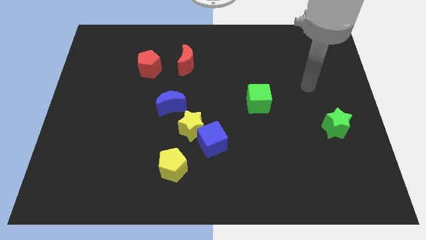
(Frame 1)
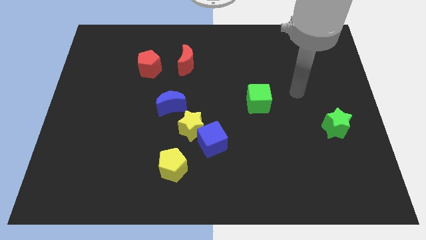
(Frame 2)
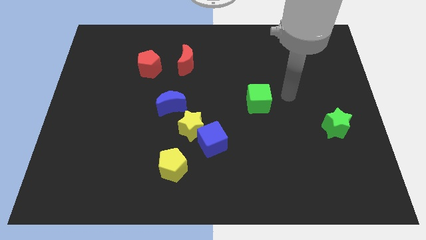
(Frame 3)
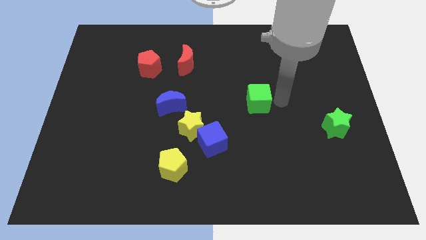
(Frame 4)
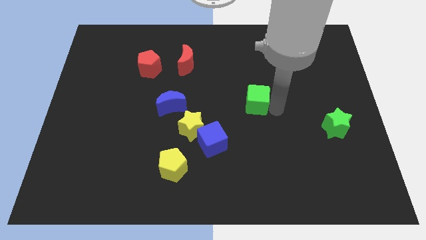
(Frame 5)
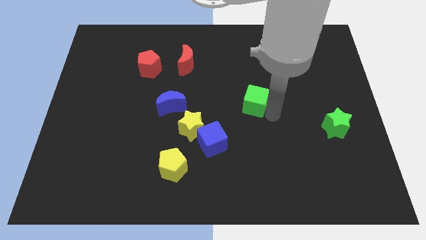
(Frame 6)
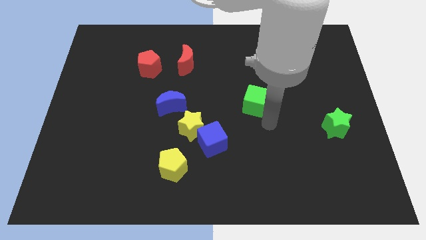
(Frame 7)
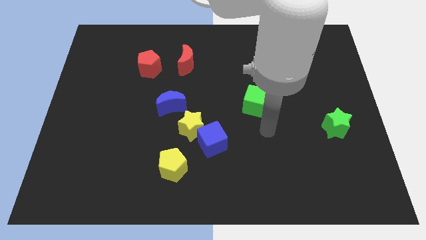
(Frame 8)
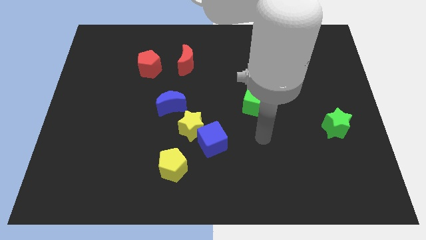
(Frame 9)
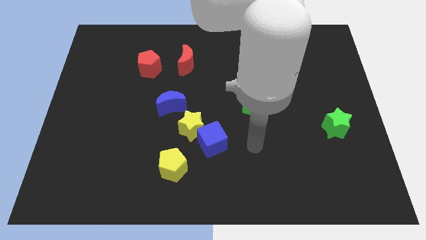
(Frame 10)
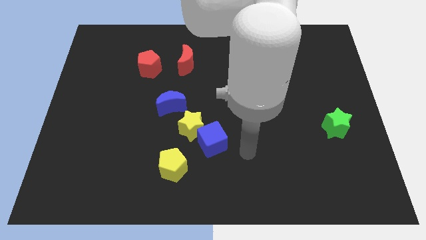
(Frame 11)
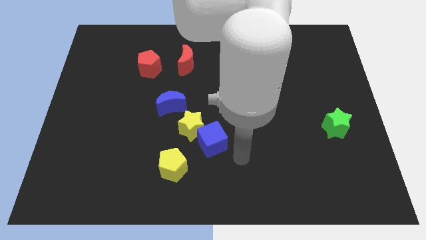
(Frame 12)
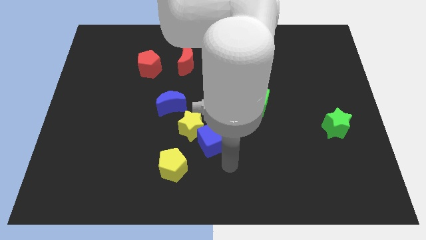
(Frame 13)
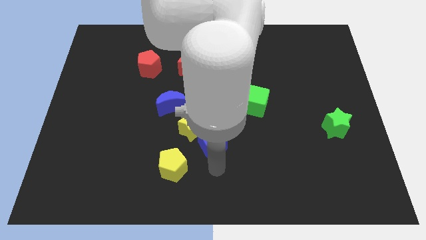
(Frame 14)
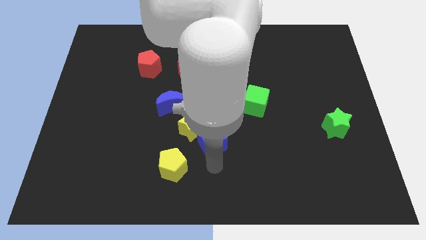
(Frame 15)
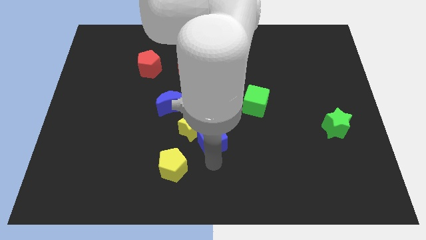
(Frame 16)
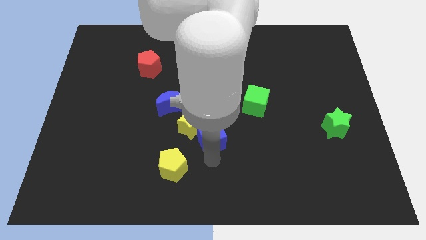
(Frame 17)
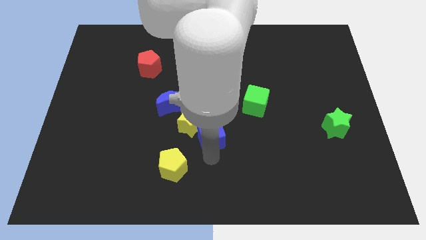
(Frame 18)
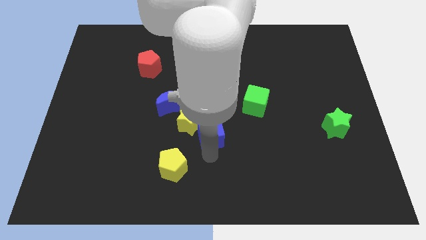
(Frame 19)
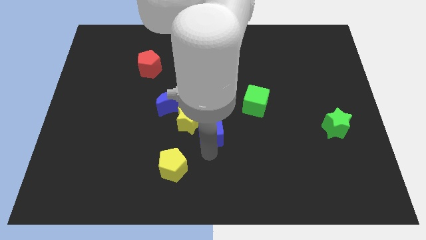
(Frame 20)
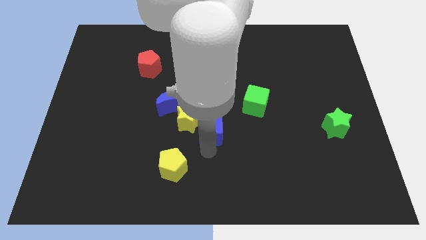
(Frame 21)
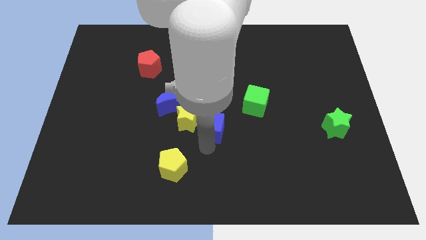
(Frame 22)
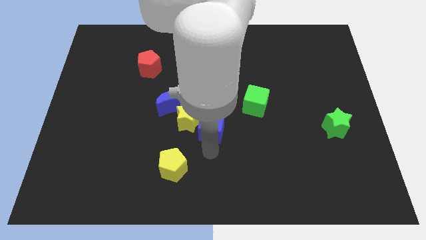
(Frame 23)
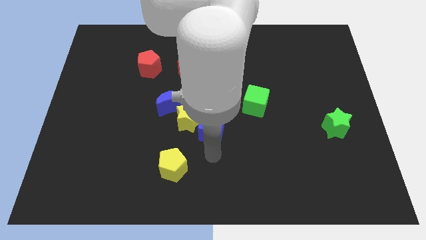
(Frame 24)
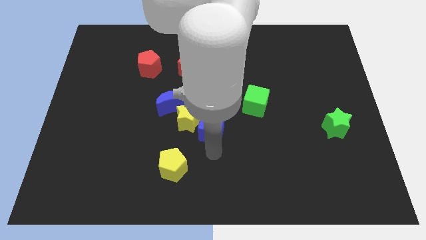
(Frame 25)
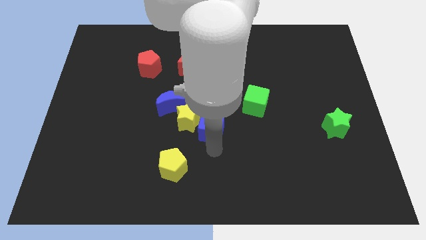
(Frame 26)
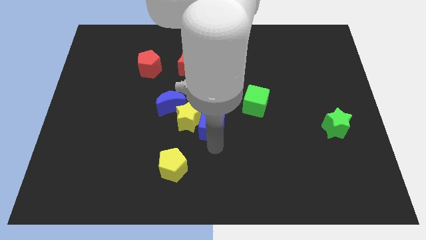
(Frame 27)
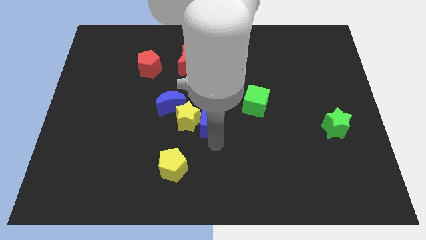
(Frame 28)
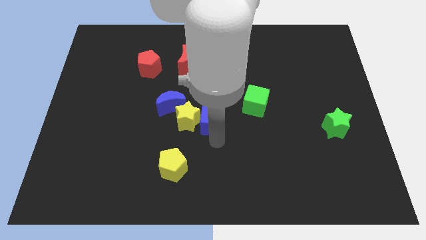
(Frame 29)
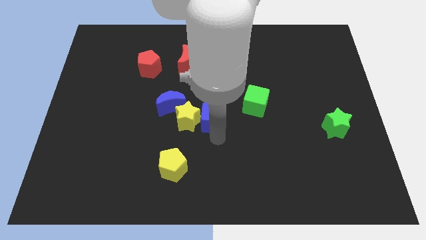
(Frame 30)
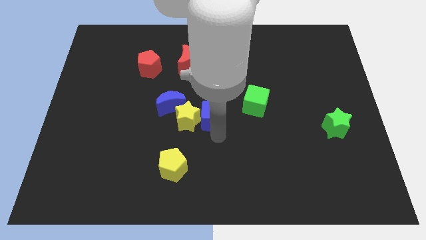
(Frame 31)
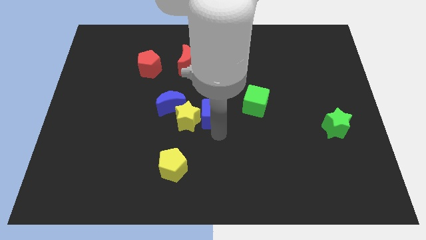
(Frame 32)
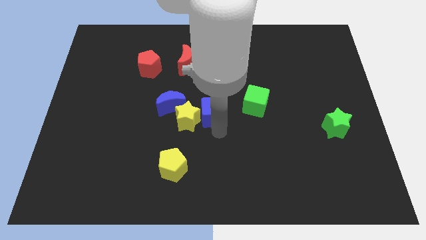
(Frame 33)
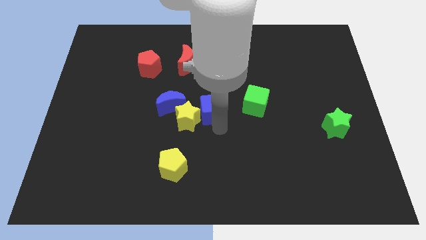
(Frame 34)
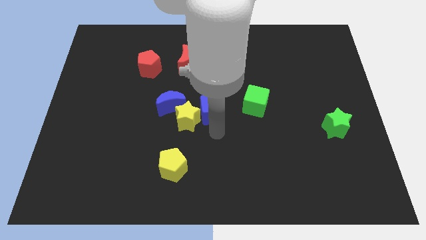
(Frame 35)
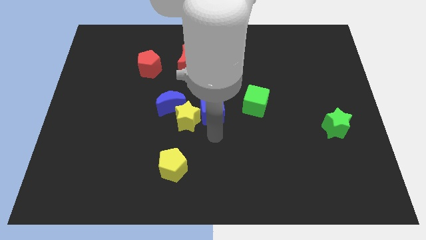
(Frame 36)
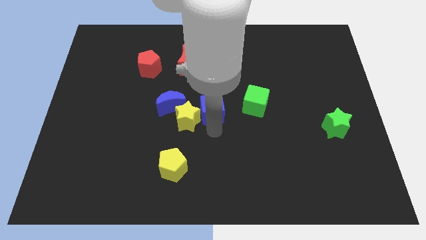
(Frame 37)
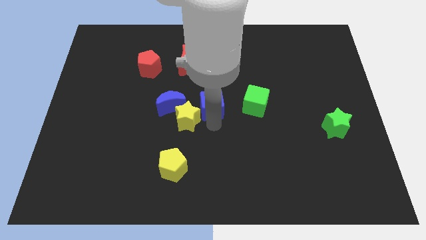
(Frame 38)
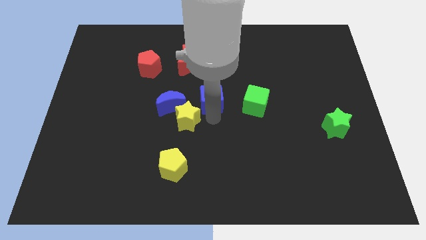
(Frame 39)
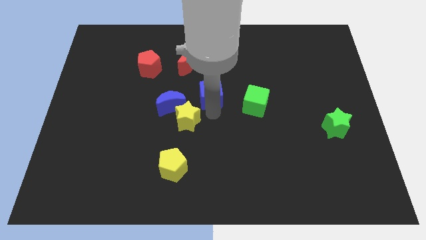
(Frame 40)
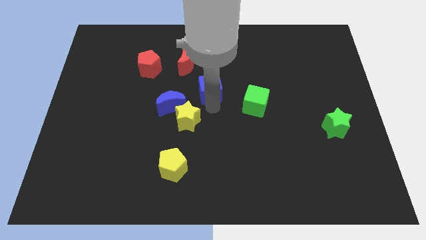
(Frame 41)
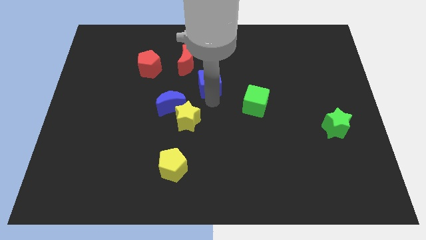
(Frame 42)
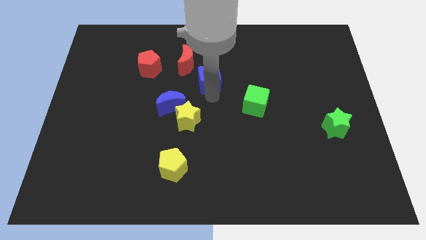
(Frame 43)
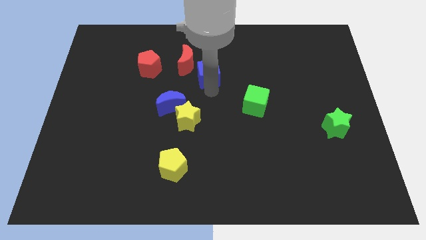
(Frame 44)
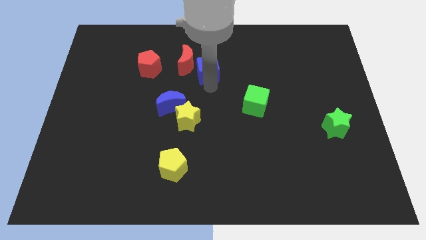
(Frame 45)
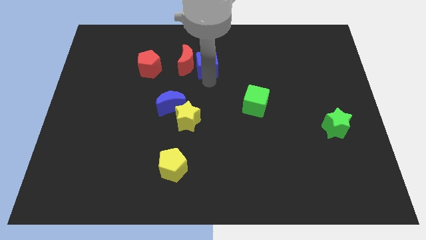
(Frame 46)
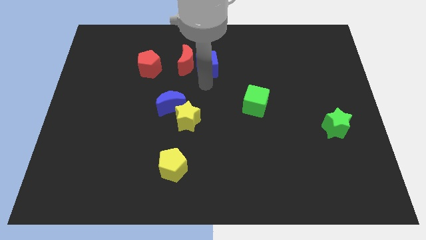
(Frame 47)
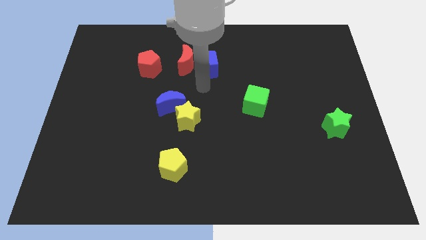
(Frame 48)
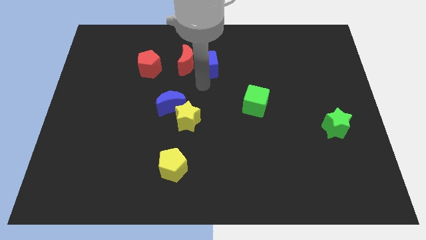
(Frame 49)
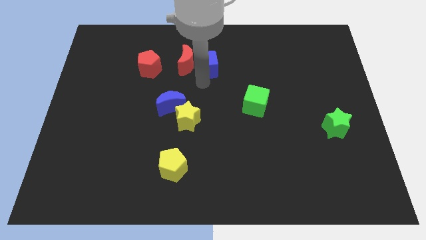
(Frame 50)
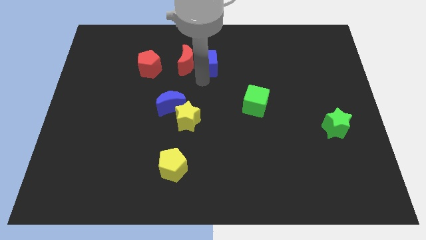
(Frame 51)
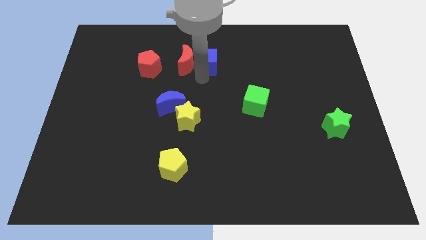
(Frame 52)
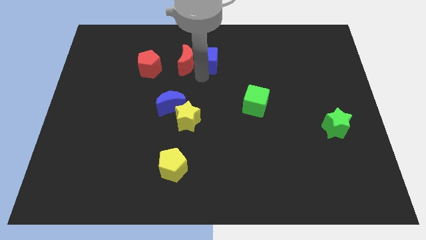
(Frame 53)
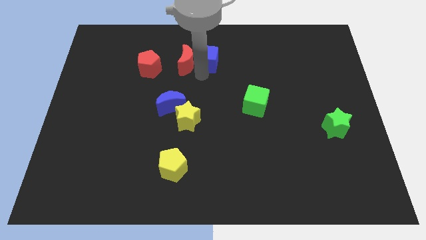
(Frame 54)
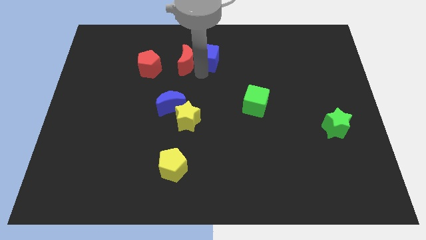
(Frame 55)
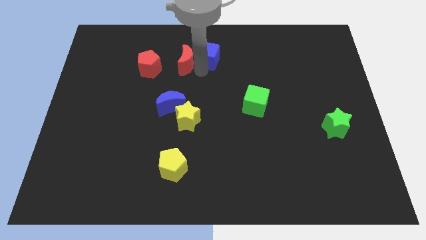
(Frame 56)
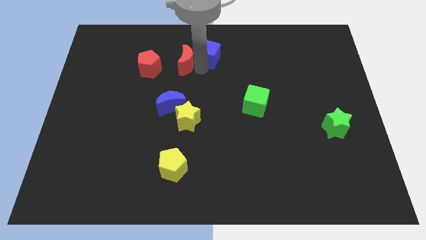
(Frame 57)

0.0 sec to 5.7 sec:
push the blue cube to the top side
